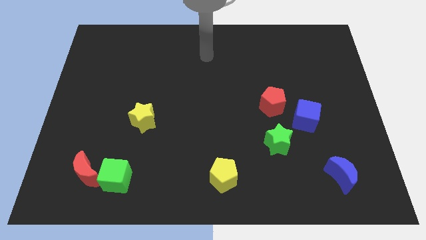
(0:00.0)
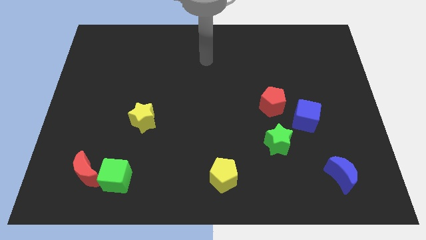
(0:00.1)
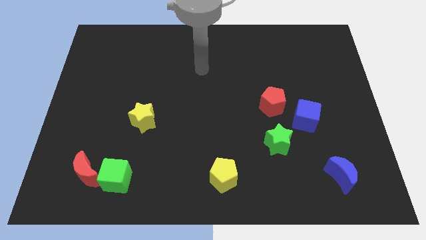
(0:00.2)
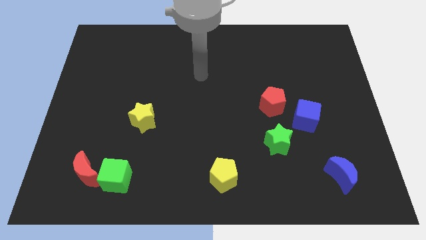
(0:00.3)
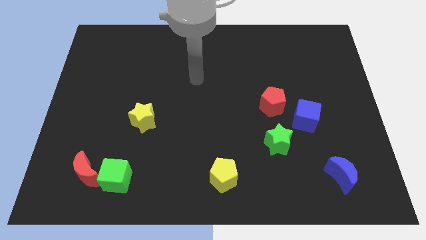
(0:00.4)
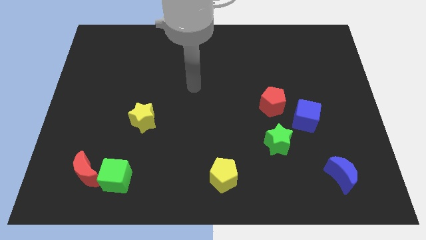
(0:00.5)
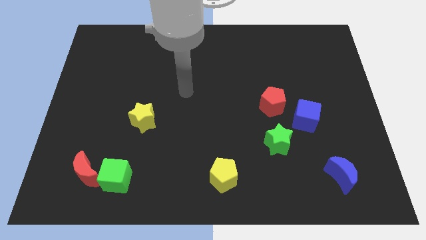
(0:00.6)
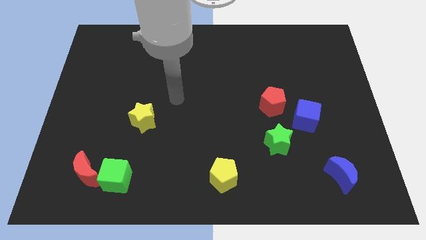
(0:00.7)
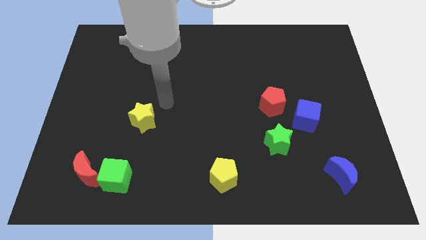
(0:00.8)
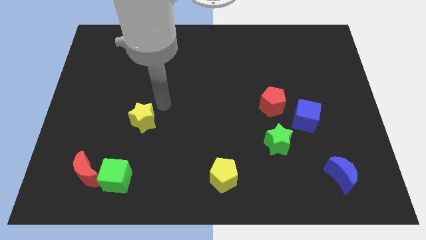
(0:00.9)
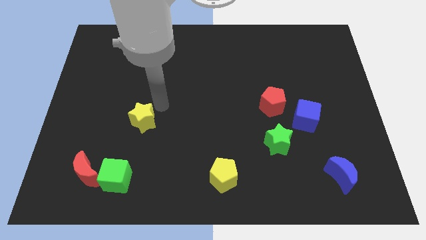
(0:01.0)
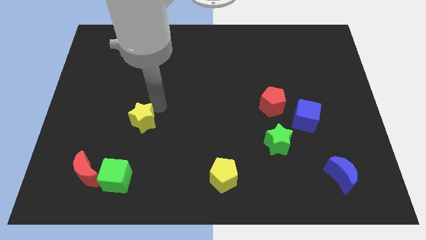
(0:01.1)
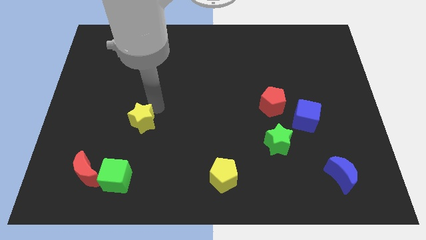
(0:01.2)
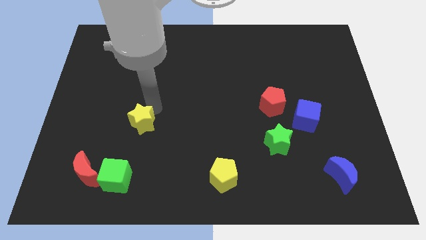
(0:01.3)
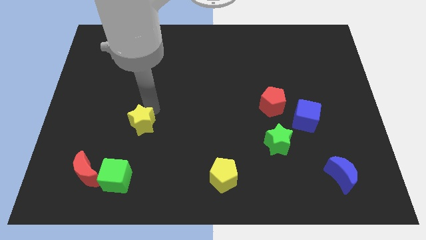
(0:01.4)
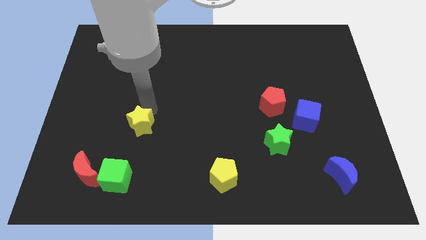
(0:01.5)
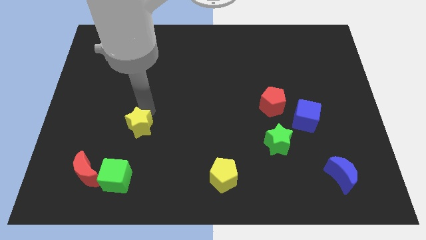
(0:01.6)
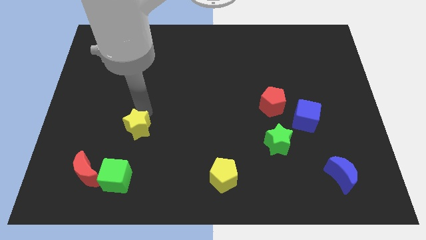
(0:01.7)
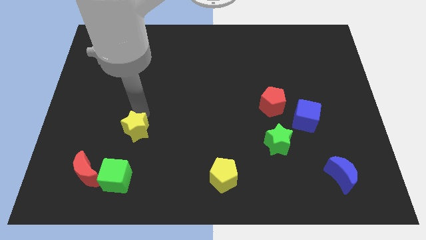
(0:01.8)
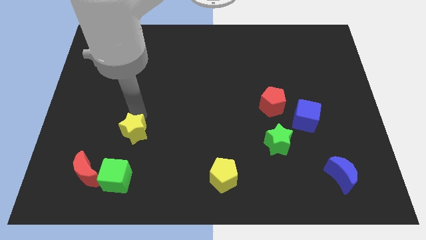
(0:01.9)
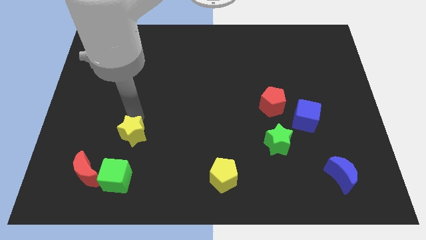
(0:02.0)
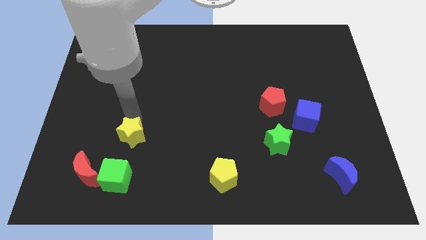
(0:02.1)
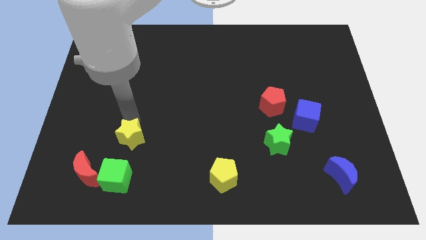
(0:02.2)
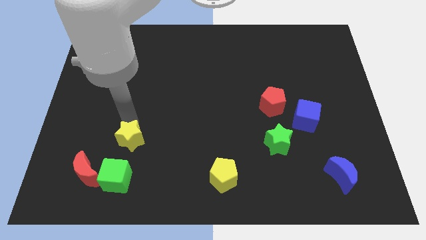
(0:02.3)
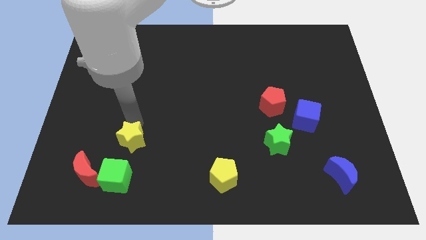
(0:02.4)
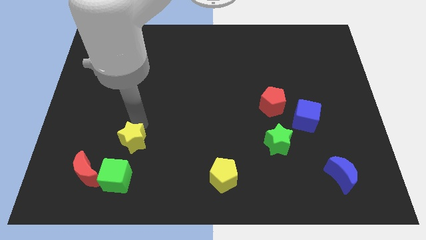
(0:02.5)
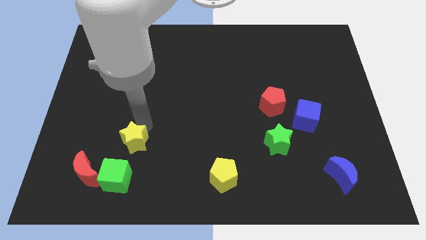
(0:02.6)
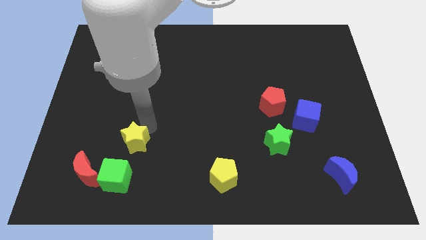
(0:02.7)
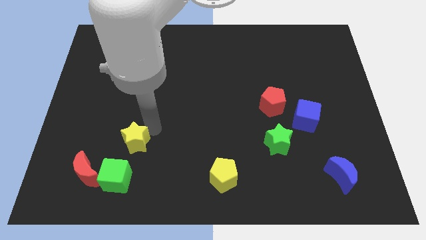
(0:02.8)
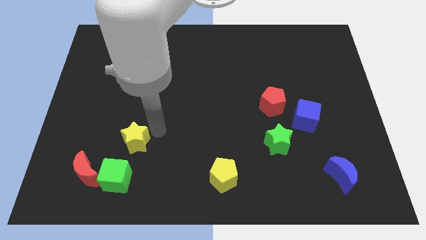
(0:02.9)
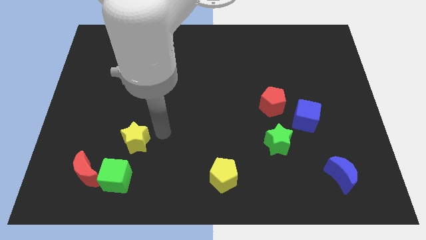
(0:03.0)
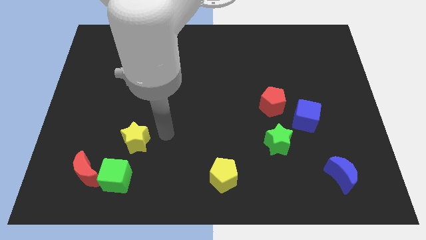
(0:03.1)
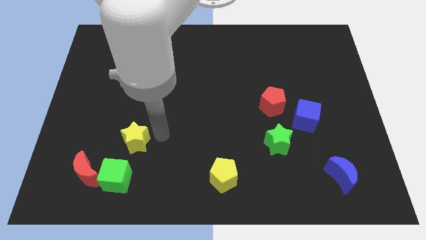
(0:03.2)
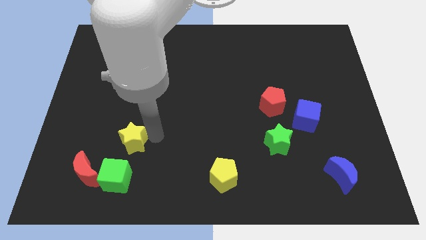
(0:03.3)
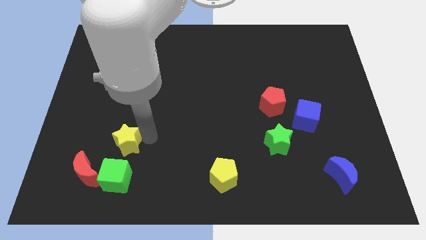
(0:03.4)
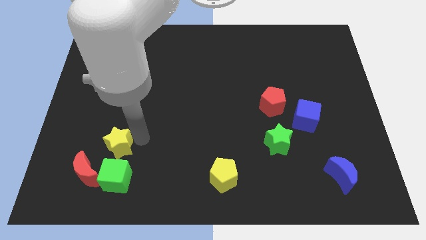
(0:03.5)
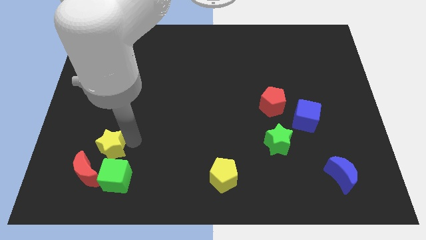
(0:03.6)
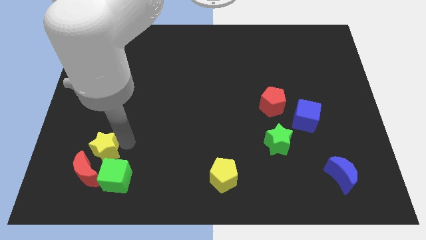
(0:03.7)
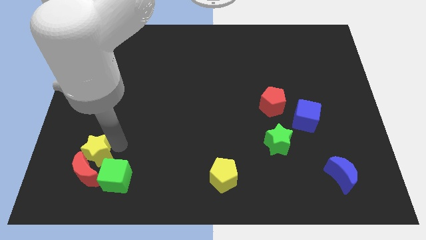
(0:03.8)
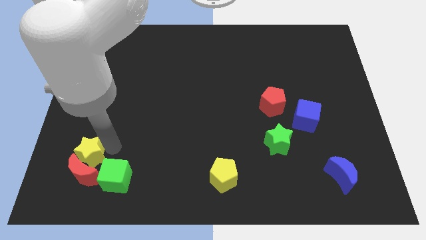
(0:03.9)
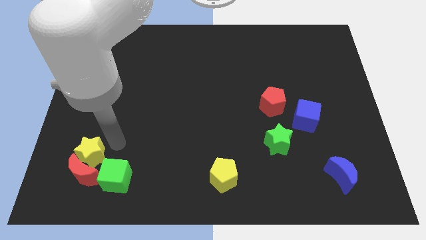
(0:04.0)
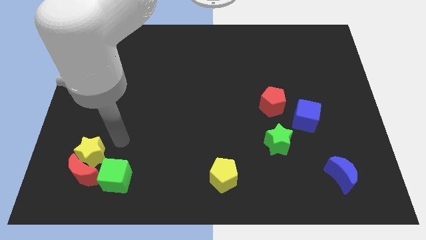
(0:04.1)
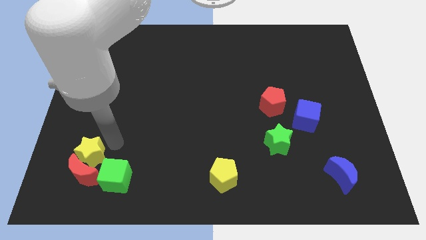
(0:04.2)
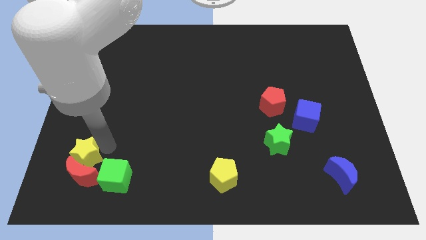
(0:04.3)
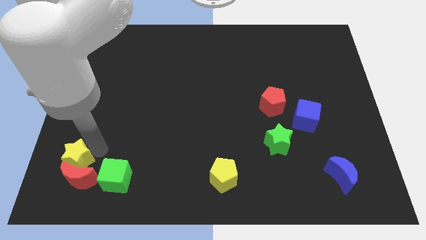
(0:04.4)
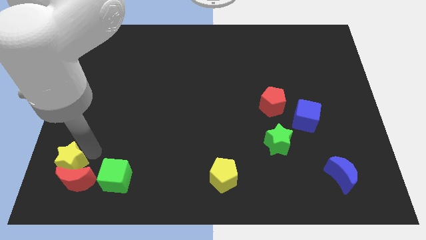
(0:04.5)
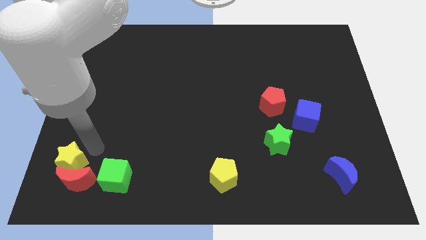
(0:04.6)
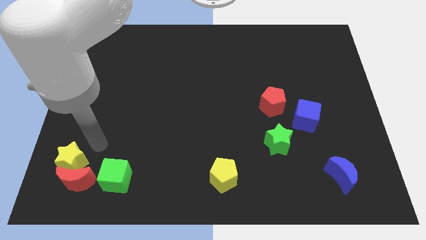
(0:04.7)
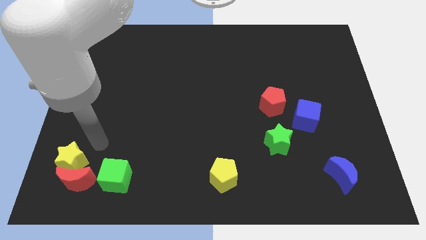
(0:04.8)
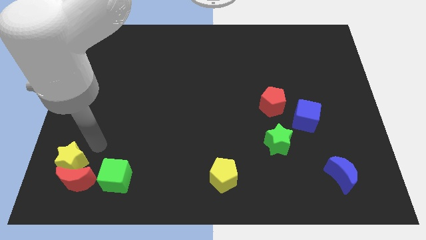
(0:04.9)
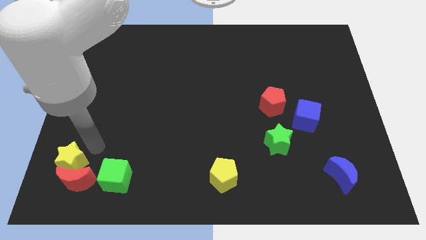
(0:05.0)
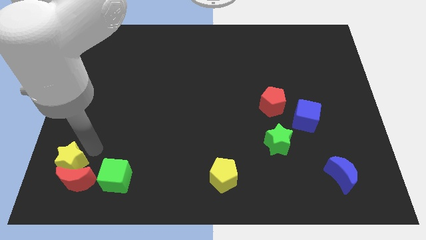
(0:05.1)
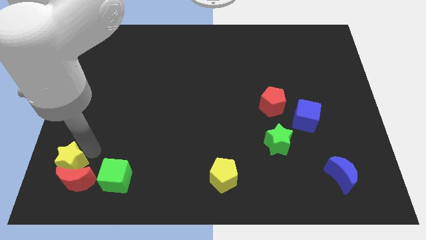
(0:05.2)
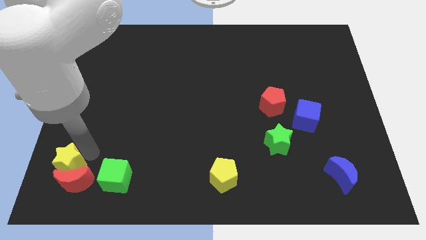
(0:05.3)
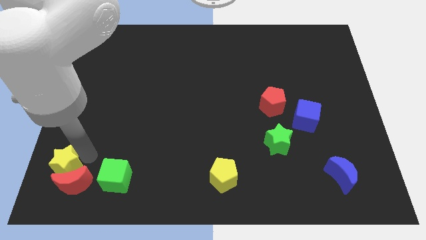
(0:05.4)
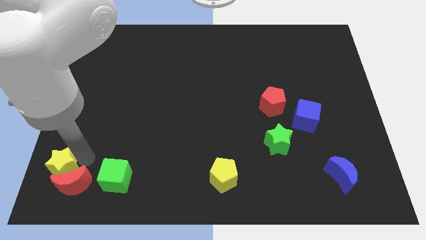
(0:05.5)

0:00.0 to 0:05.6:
slide the yellow star to the bottom left corner

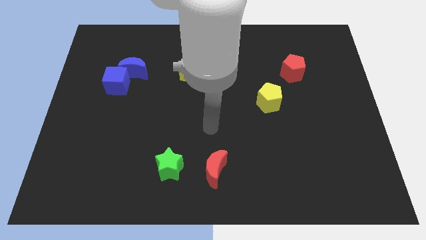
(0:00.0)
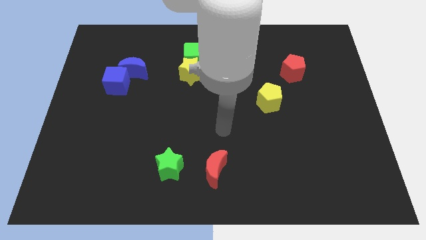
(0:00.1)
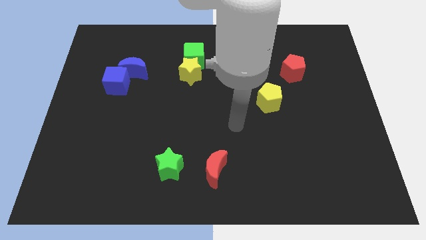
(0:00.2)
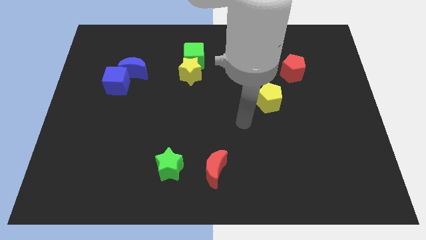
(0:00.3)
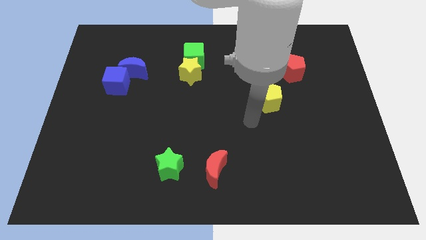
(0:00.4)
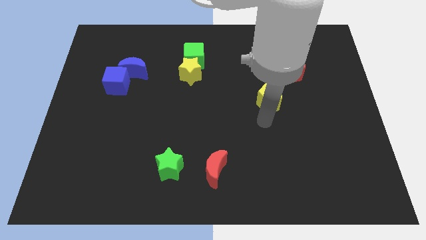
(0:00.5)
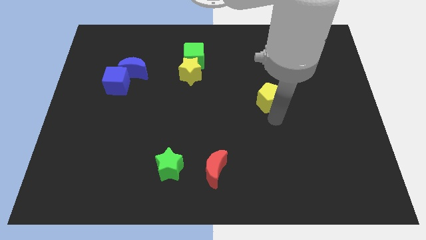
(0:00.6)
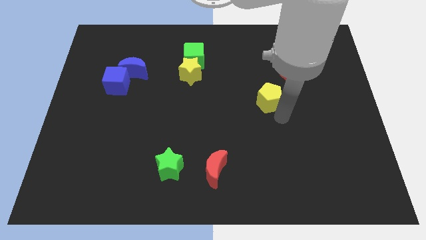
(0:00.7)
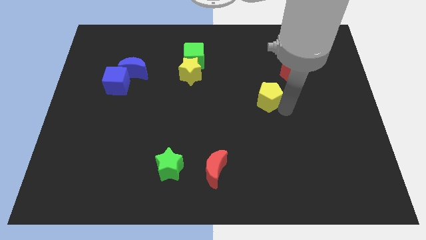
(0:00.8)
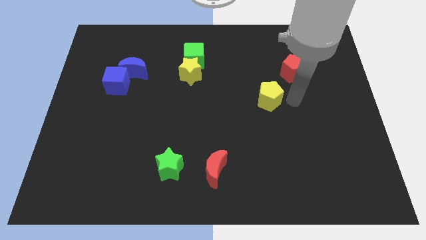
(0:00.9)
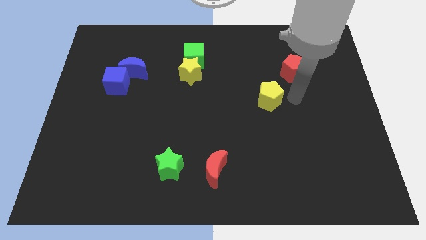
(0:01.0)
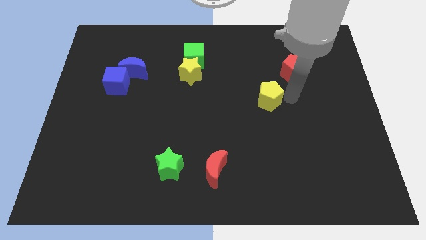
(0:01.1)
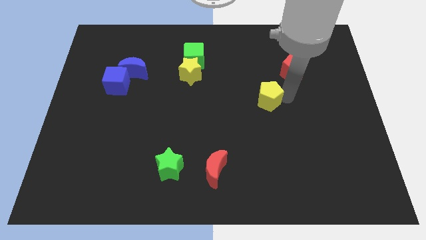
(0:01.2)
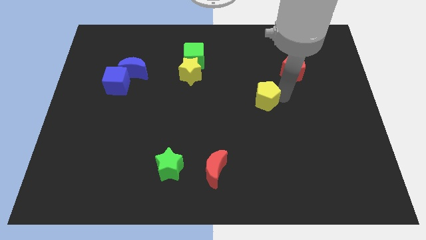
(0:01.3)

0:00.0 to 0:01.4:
put the yellow pentagon to the middle of the board
